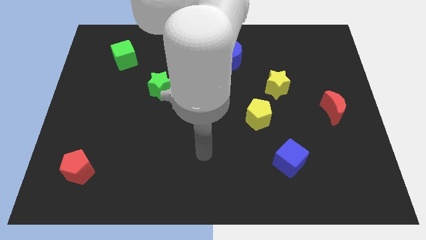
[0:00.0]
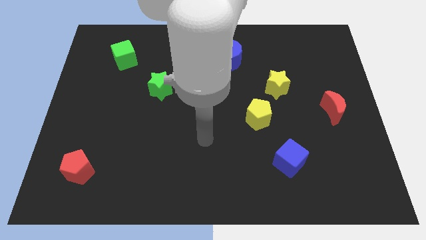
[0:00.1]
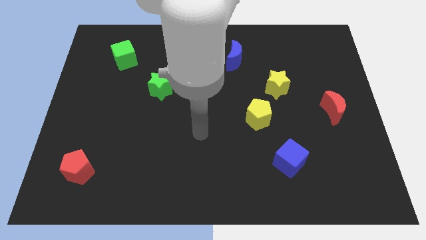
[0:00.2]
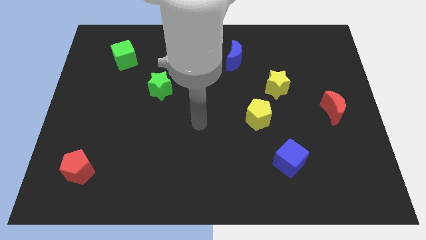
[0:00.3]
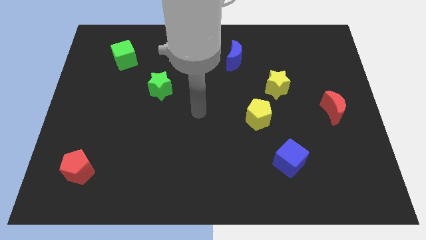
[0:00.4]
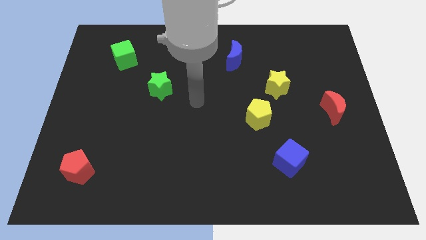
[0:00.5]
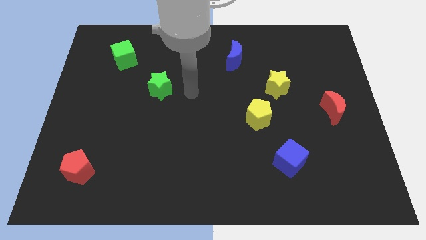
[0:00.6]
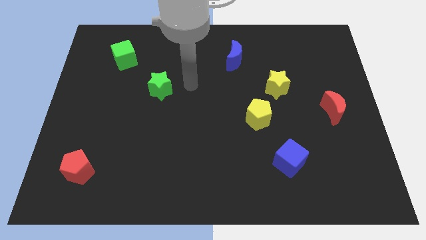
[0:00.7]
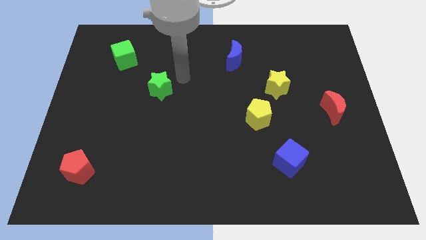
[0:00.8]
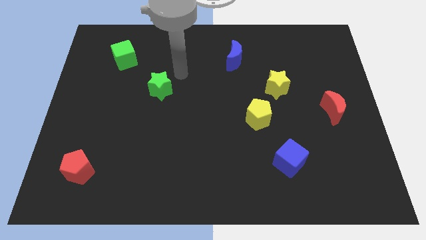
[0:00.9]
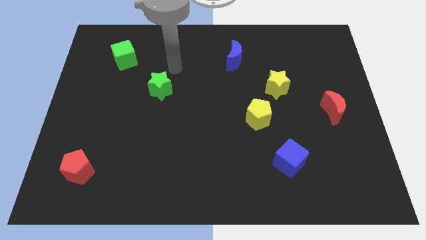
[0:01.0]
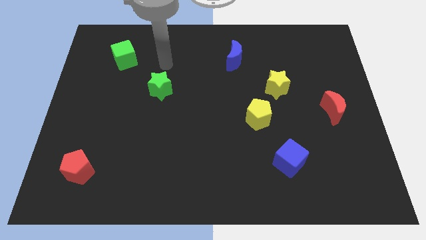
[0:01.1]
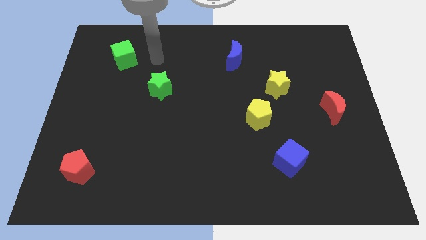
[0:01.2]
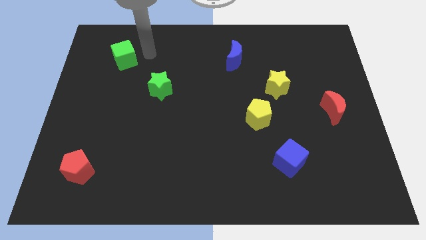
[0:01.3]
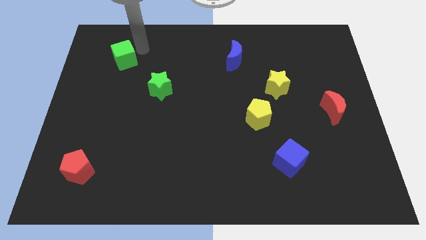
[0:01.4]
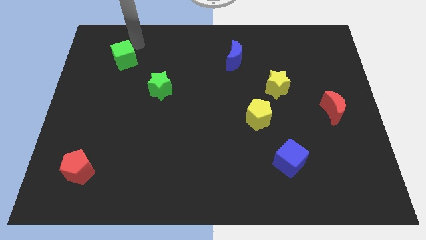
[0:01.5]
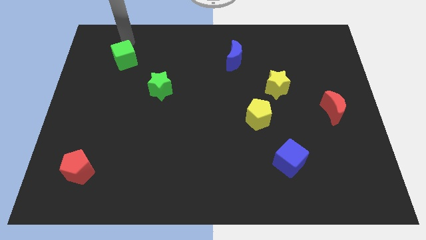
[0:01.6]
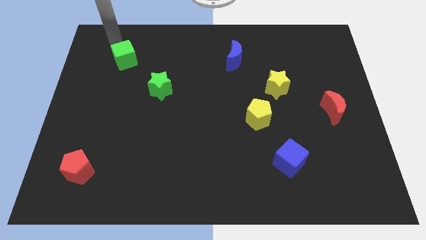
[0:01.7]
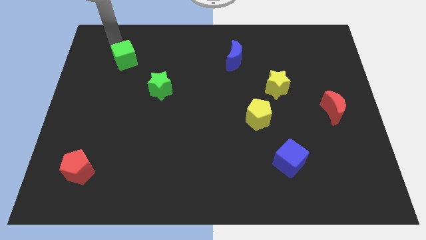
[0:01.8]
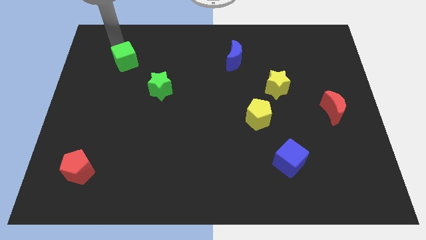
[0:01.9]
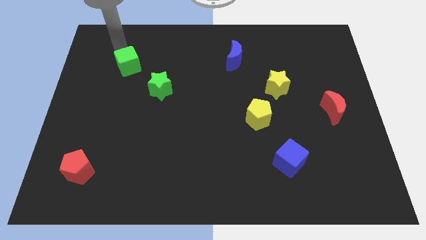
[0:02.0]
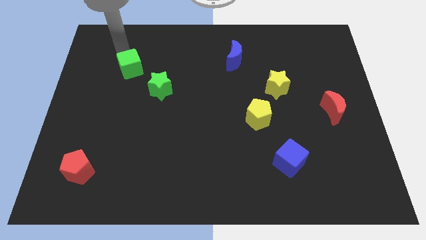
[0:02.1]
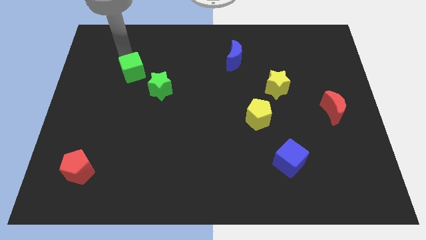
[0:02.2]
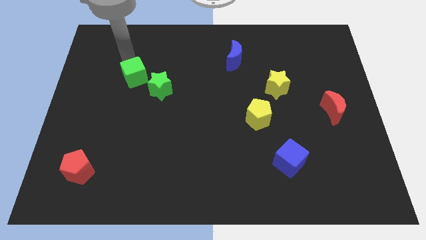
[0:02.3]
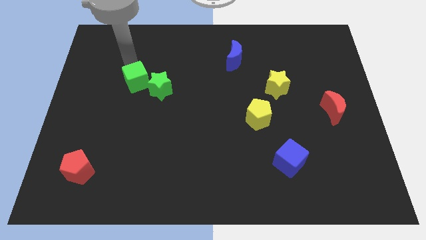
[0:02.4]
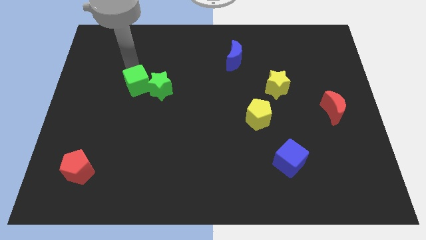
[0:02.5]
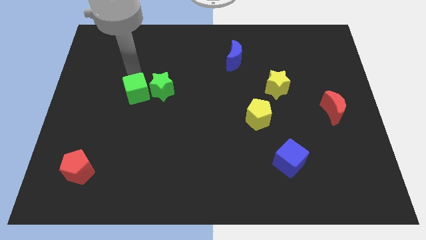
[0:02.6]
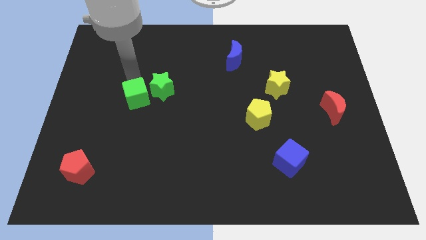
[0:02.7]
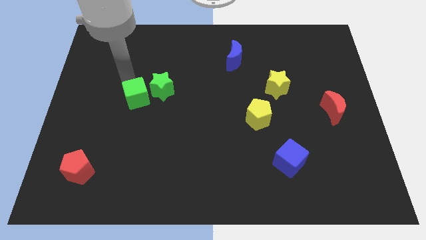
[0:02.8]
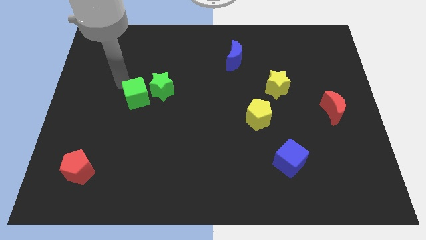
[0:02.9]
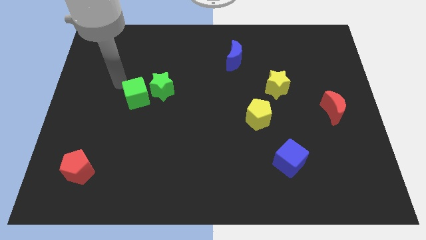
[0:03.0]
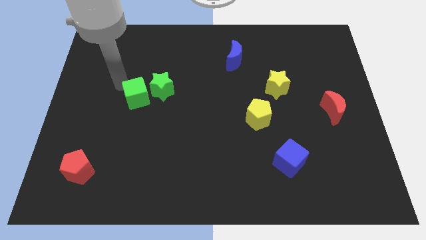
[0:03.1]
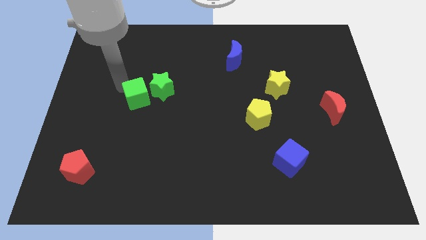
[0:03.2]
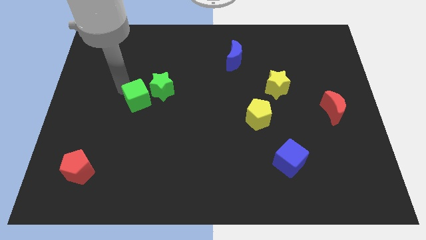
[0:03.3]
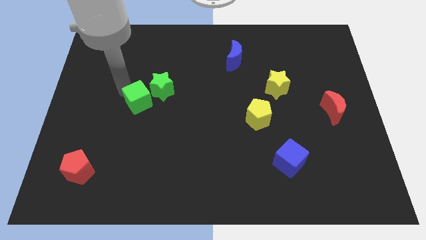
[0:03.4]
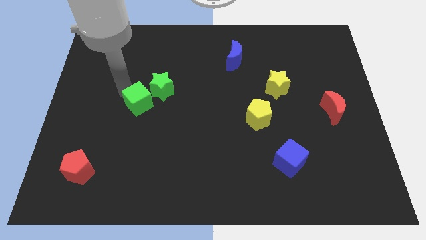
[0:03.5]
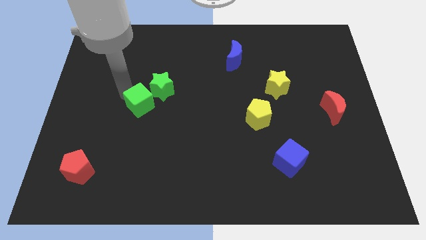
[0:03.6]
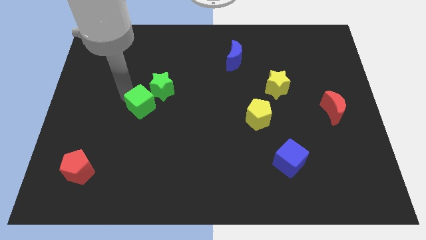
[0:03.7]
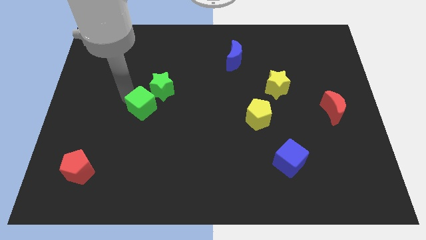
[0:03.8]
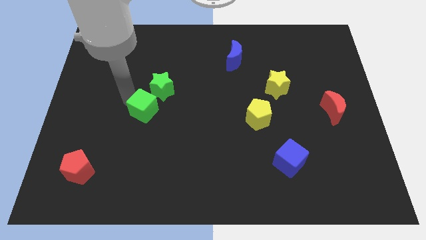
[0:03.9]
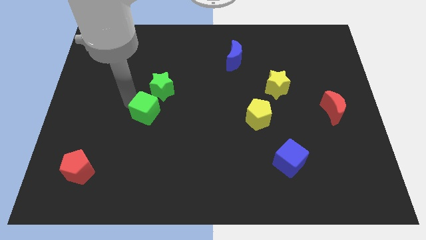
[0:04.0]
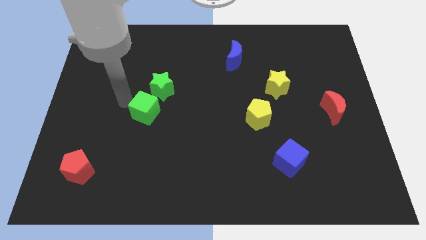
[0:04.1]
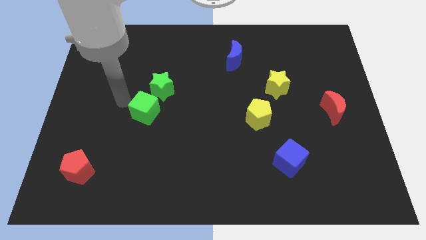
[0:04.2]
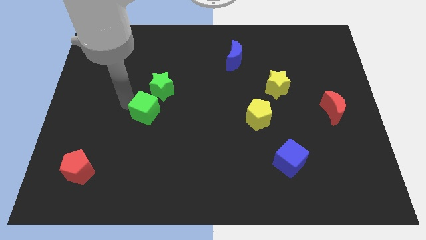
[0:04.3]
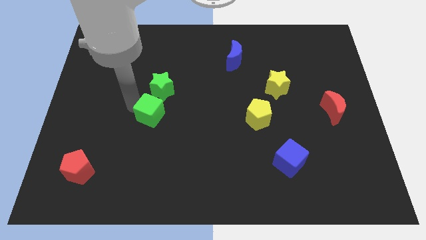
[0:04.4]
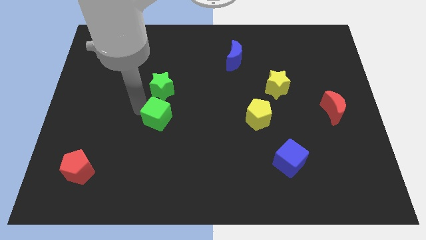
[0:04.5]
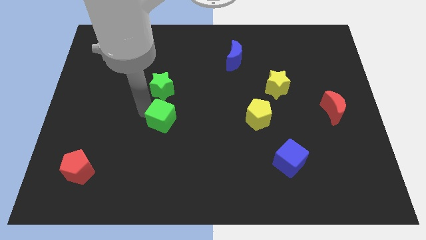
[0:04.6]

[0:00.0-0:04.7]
push the green cube diagonally down and to the right

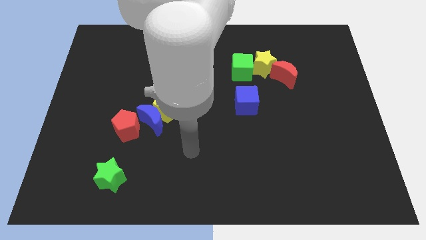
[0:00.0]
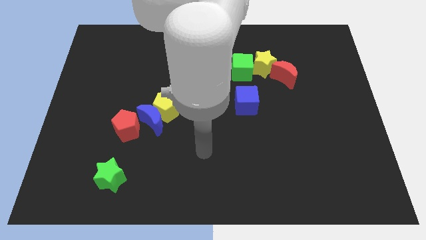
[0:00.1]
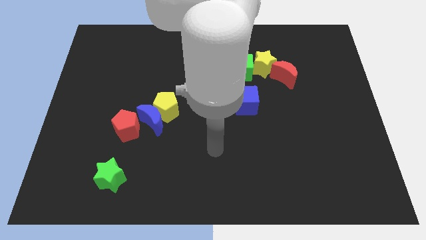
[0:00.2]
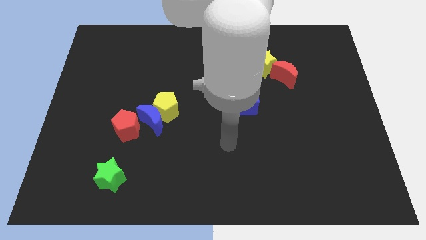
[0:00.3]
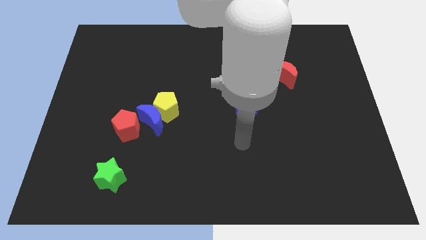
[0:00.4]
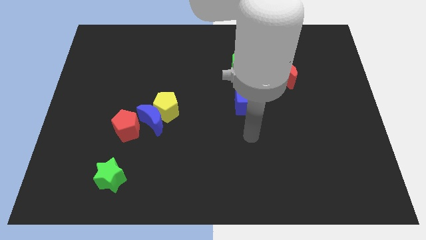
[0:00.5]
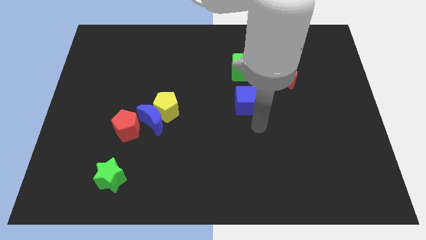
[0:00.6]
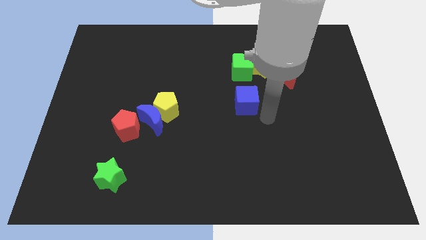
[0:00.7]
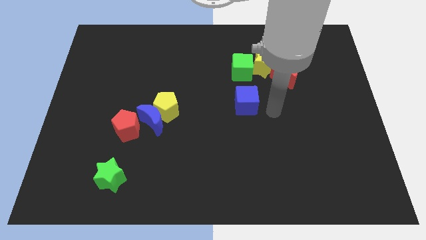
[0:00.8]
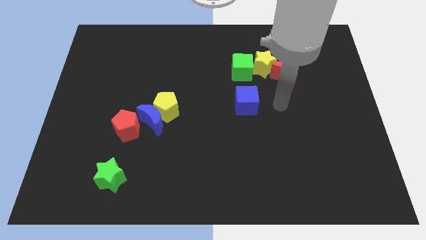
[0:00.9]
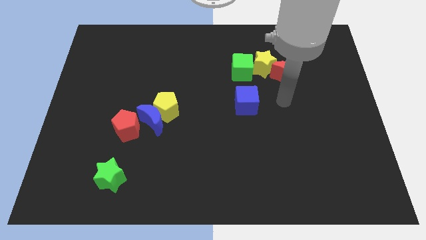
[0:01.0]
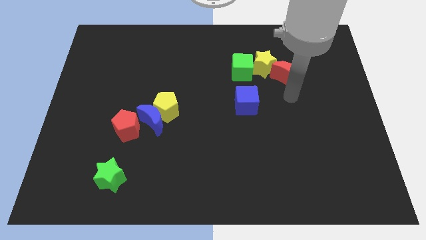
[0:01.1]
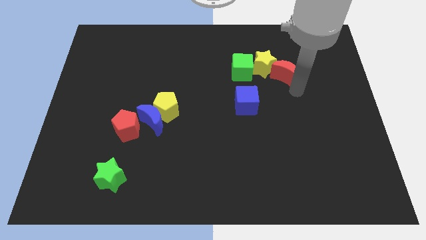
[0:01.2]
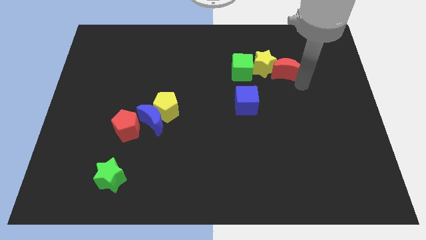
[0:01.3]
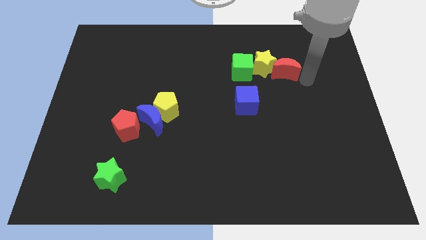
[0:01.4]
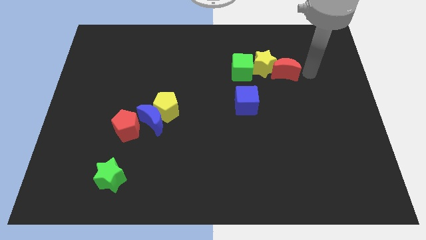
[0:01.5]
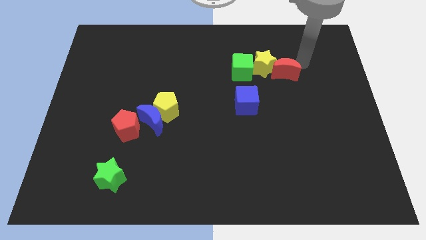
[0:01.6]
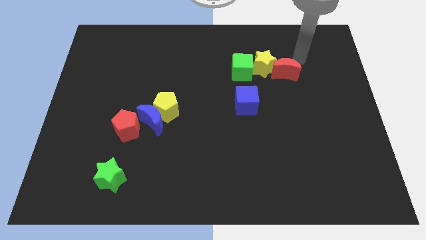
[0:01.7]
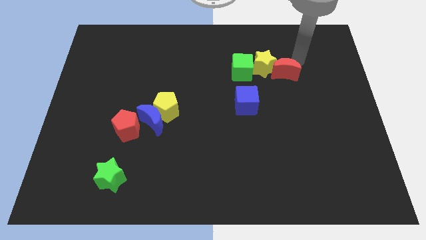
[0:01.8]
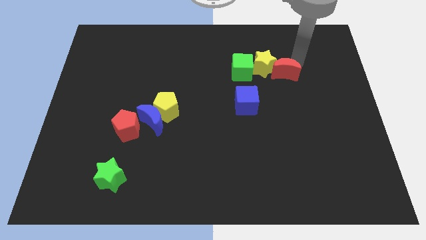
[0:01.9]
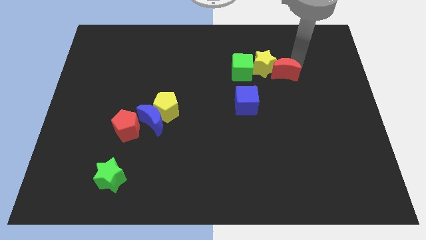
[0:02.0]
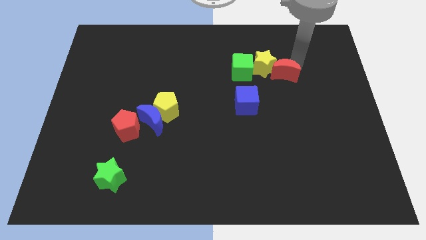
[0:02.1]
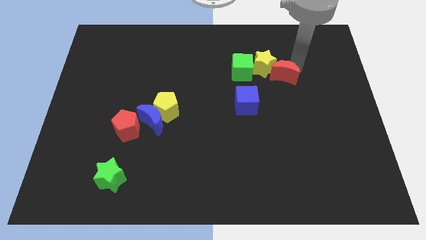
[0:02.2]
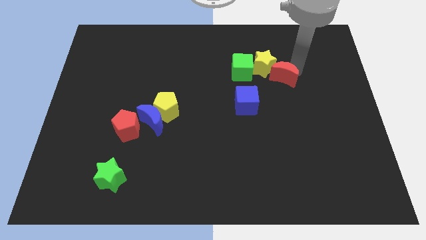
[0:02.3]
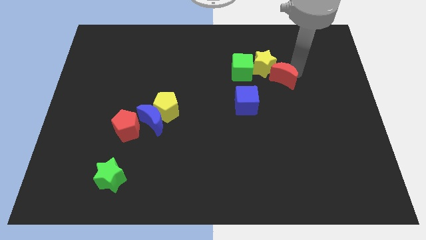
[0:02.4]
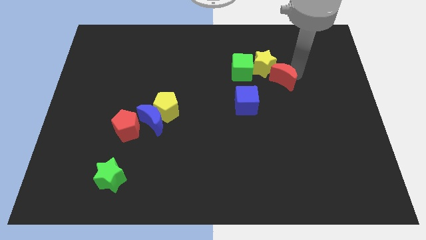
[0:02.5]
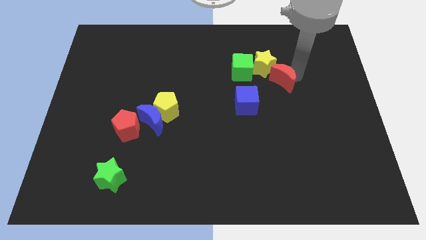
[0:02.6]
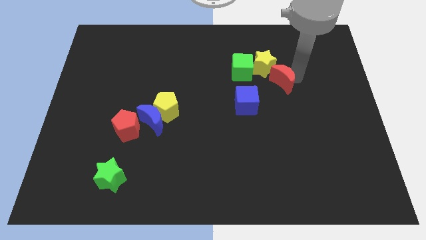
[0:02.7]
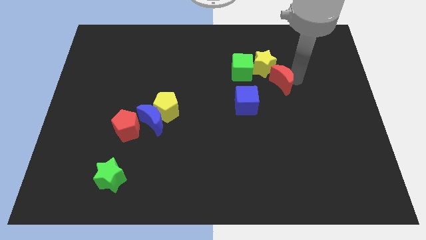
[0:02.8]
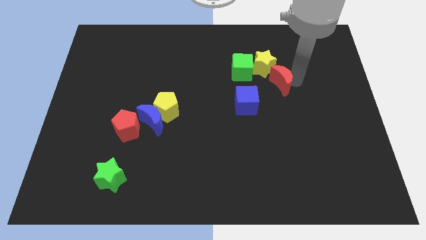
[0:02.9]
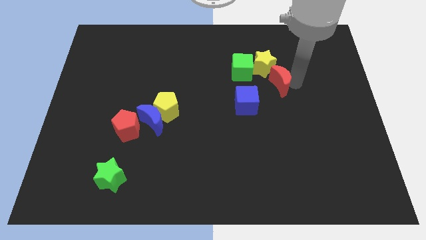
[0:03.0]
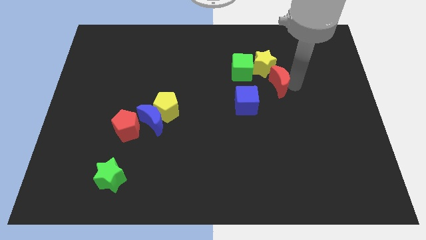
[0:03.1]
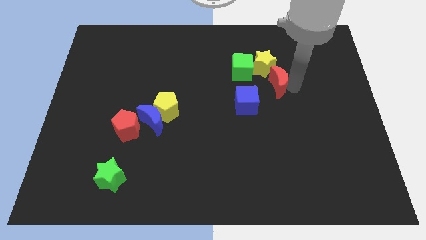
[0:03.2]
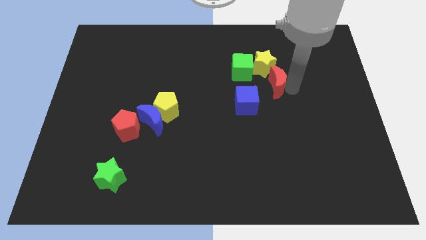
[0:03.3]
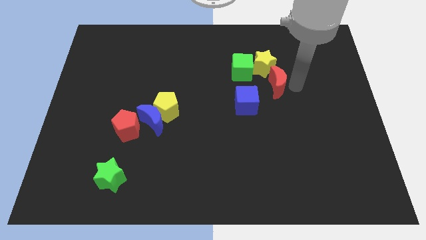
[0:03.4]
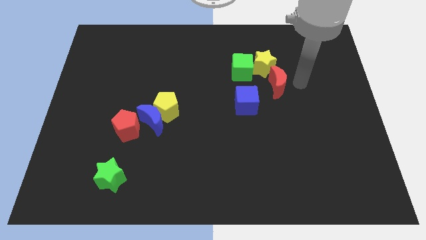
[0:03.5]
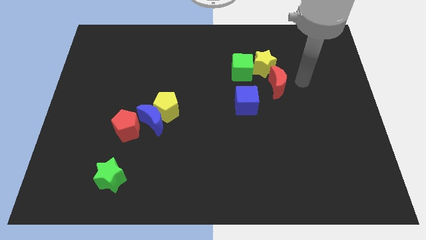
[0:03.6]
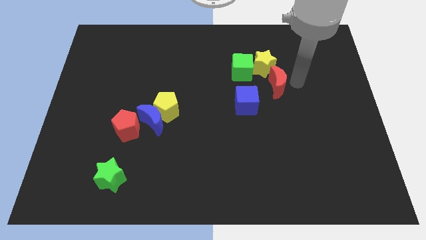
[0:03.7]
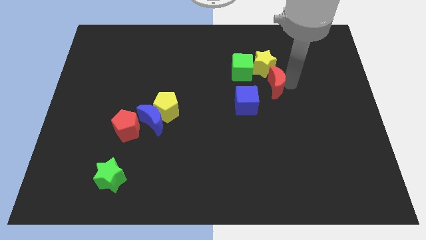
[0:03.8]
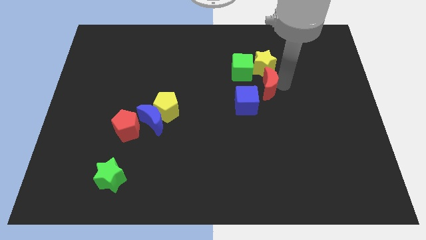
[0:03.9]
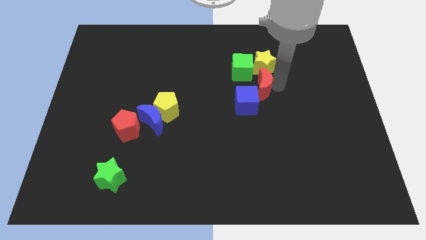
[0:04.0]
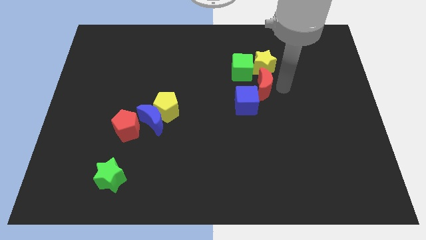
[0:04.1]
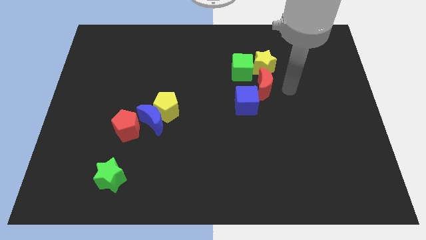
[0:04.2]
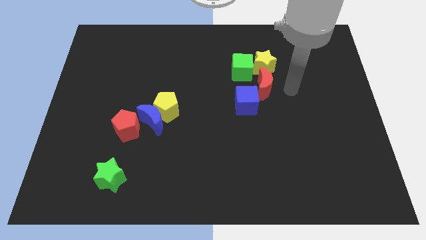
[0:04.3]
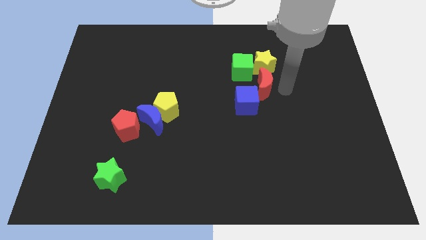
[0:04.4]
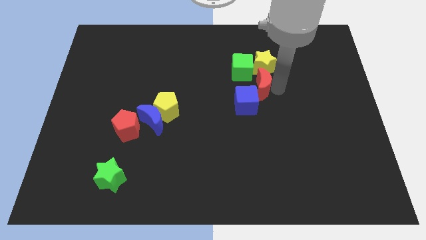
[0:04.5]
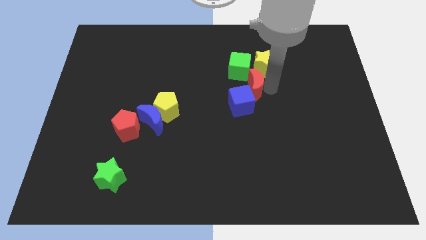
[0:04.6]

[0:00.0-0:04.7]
slightly move the red moon left
